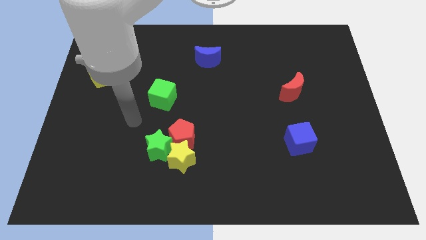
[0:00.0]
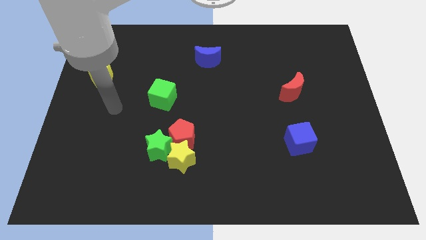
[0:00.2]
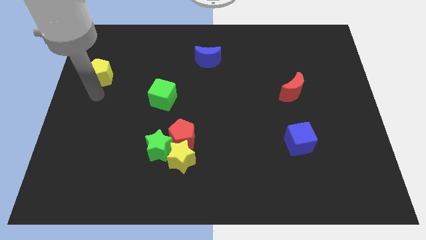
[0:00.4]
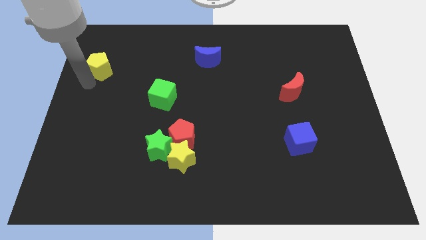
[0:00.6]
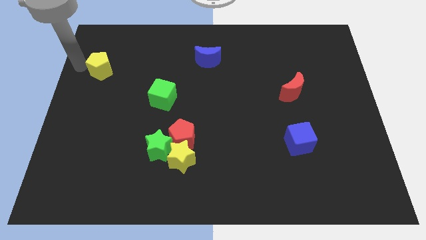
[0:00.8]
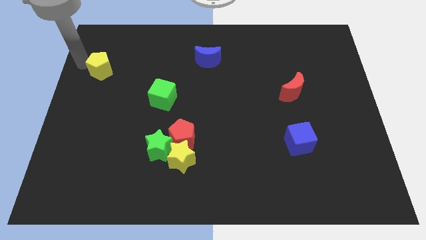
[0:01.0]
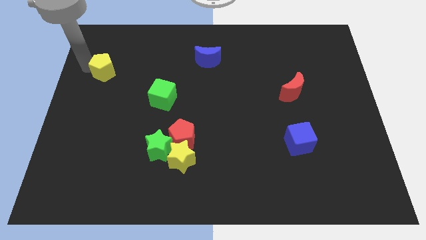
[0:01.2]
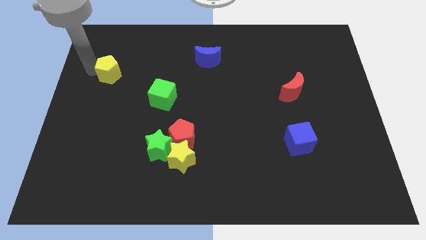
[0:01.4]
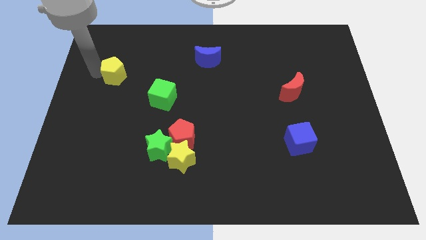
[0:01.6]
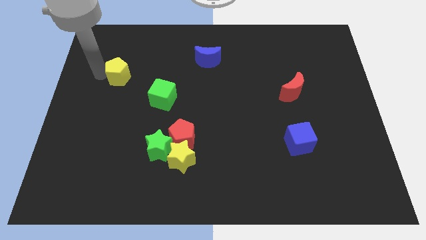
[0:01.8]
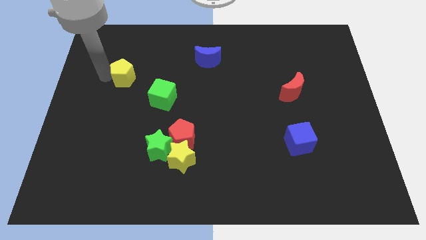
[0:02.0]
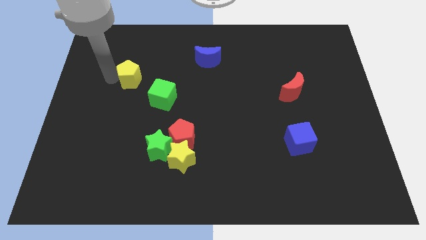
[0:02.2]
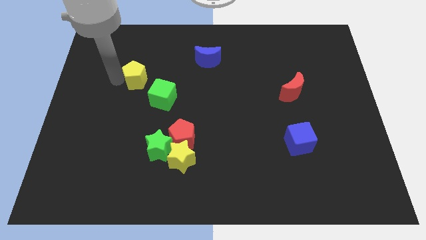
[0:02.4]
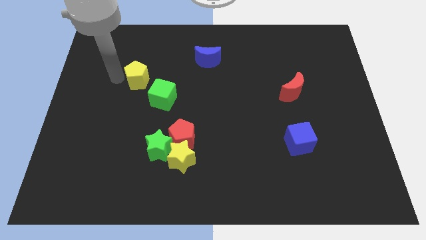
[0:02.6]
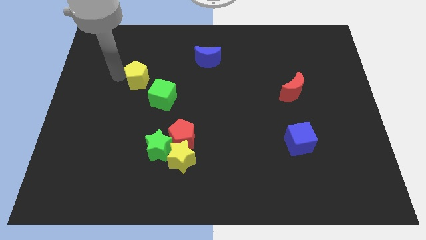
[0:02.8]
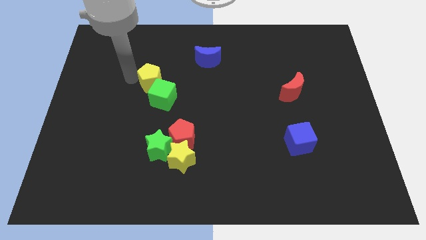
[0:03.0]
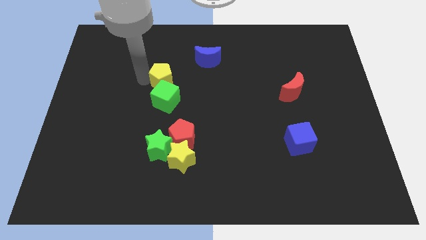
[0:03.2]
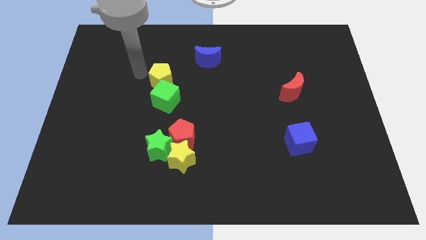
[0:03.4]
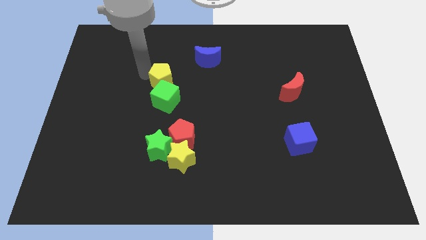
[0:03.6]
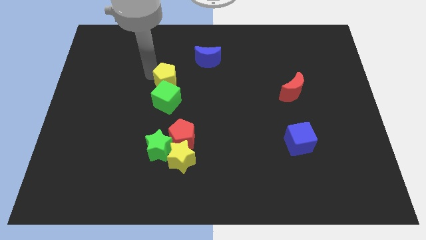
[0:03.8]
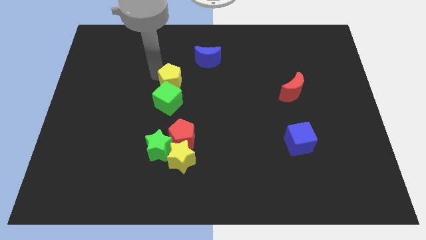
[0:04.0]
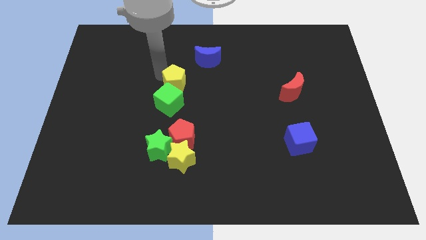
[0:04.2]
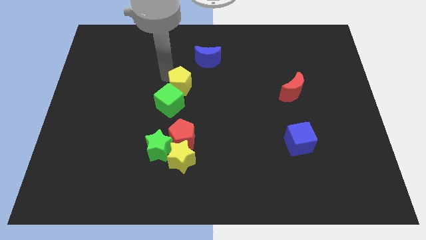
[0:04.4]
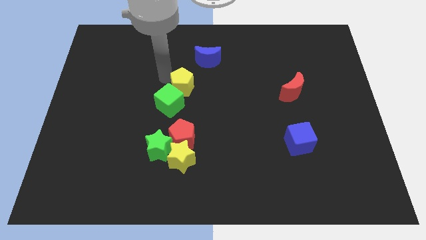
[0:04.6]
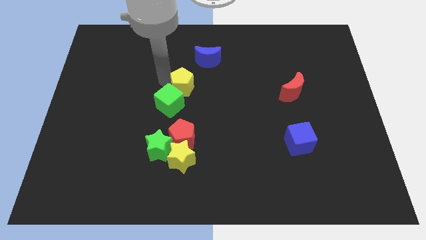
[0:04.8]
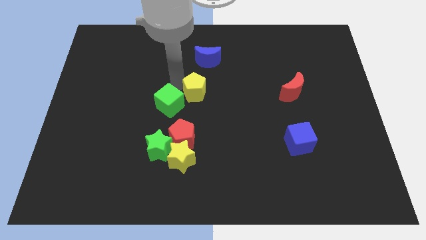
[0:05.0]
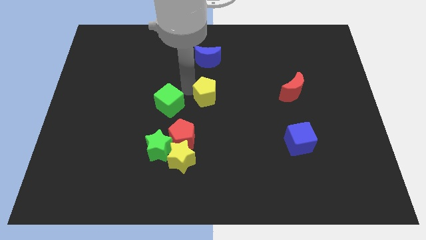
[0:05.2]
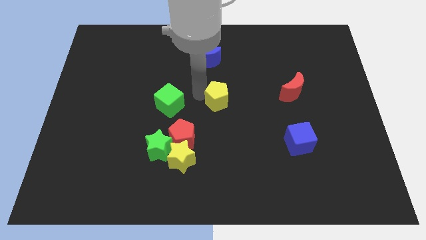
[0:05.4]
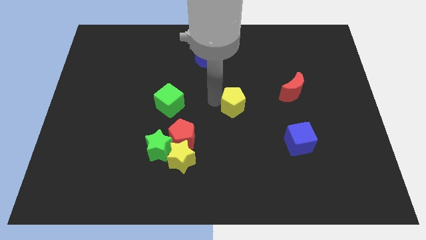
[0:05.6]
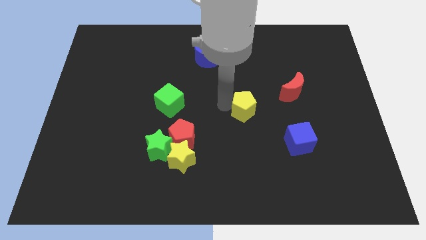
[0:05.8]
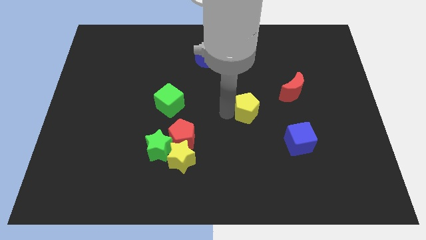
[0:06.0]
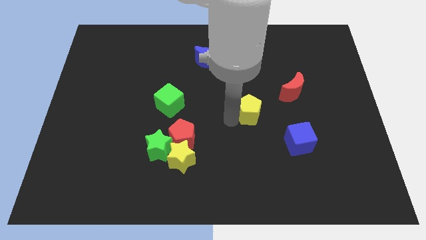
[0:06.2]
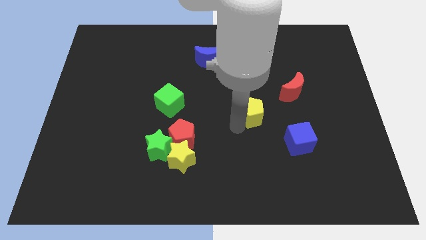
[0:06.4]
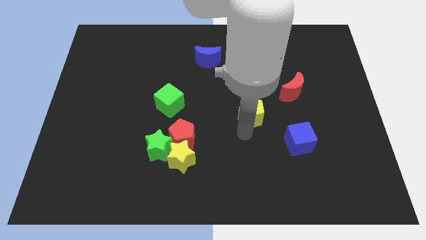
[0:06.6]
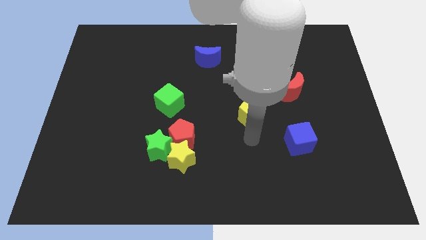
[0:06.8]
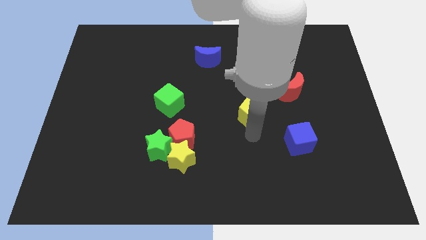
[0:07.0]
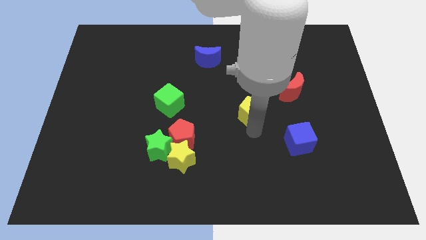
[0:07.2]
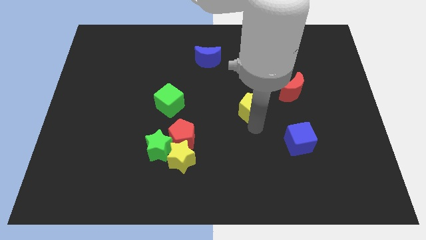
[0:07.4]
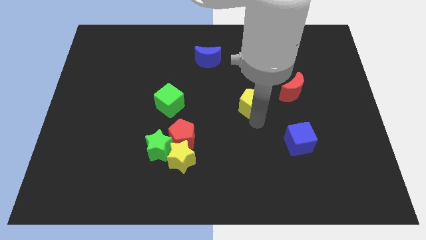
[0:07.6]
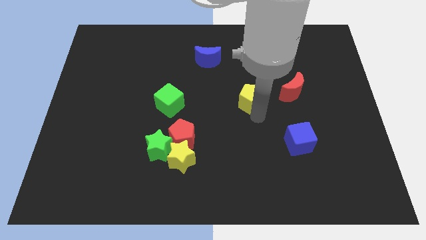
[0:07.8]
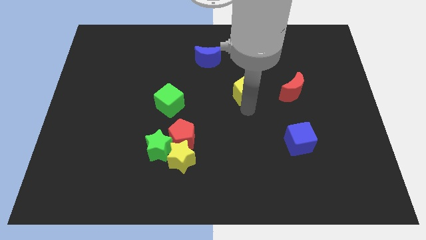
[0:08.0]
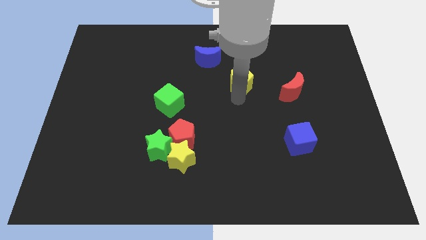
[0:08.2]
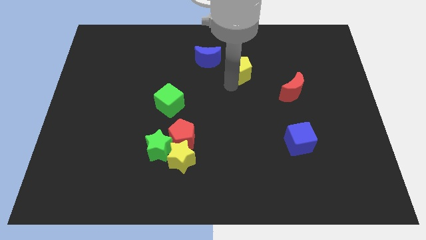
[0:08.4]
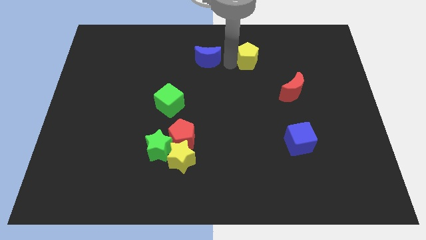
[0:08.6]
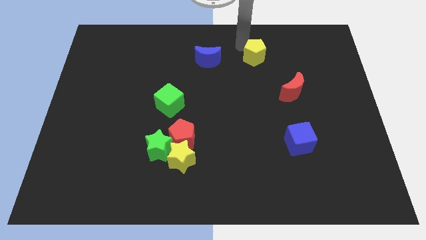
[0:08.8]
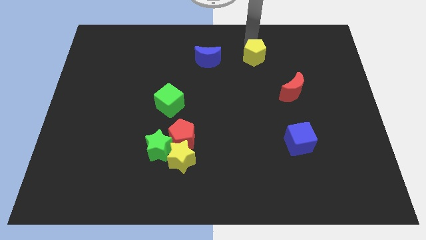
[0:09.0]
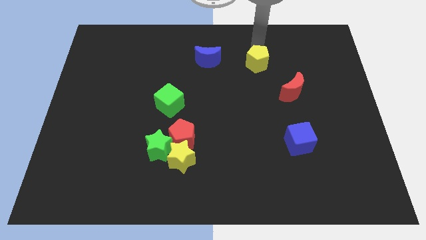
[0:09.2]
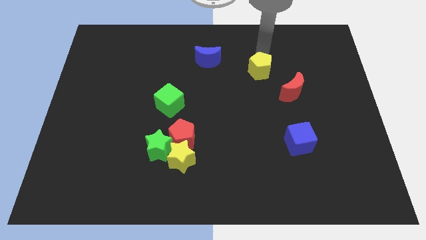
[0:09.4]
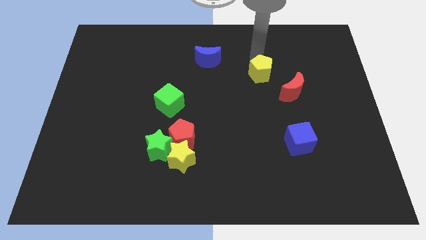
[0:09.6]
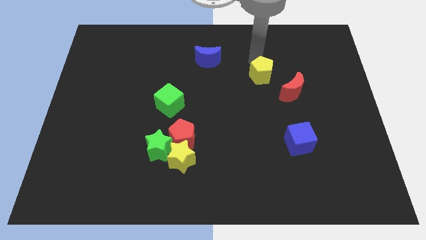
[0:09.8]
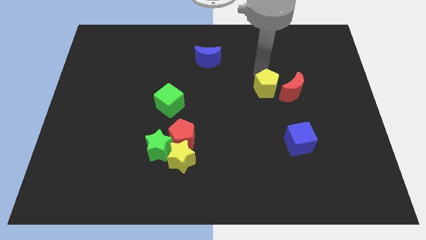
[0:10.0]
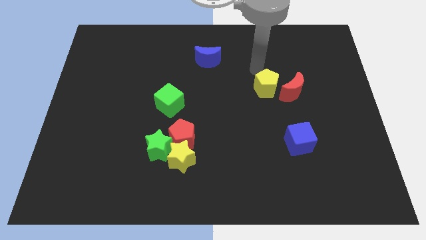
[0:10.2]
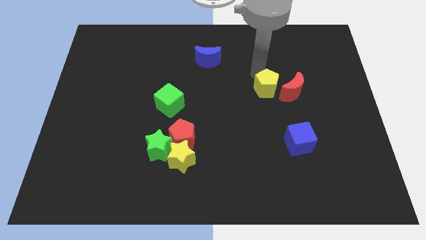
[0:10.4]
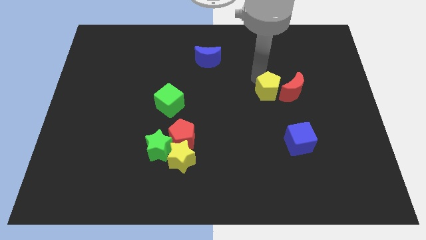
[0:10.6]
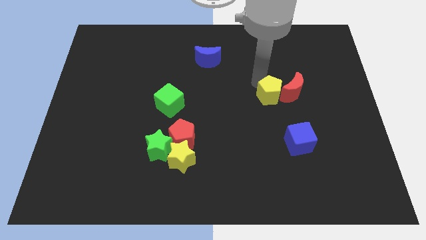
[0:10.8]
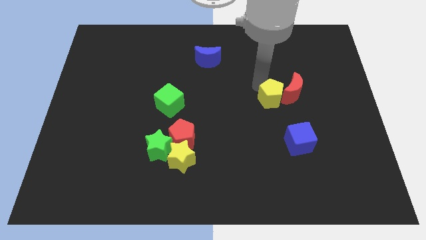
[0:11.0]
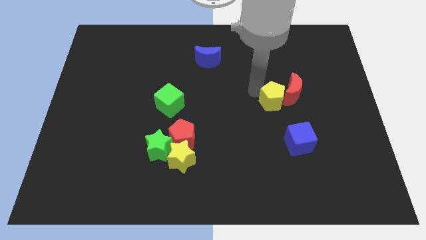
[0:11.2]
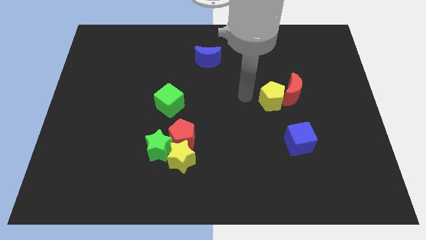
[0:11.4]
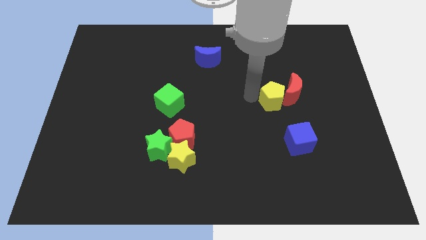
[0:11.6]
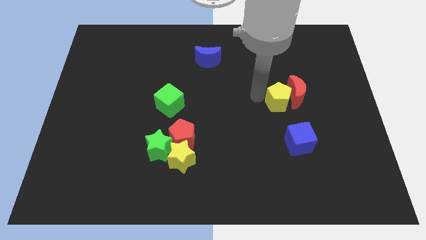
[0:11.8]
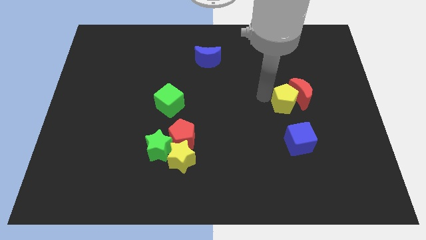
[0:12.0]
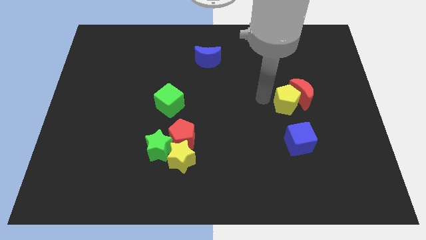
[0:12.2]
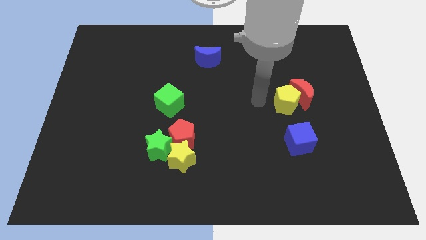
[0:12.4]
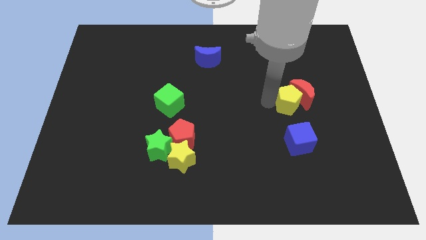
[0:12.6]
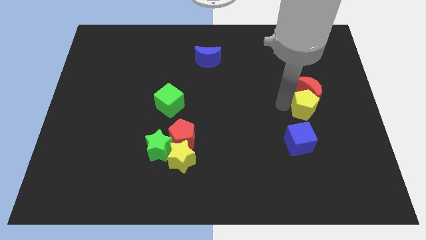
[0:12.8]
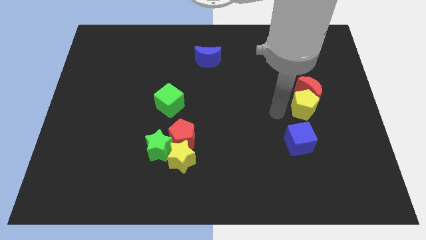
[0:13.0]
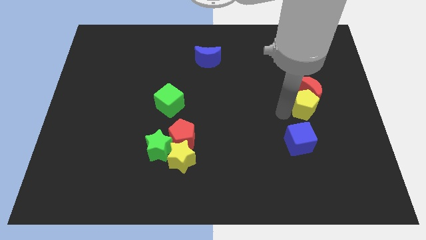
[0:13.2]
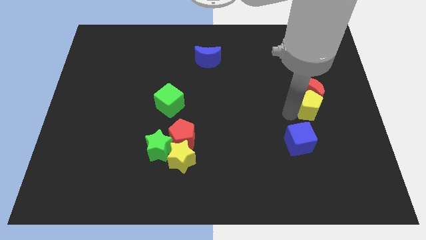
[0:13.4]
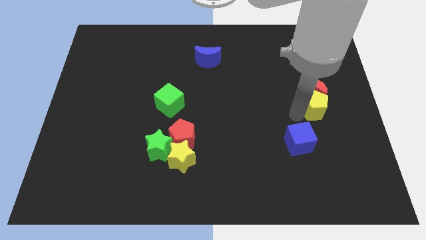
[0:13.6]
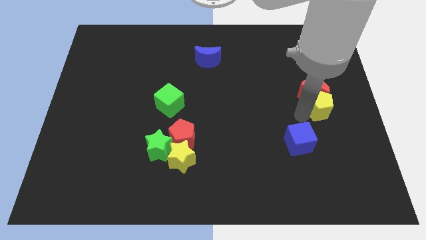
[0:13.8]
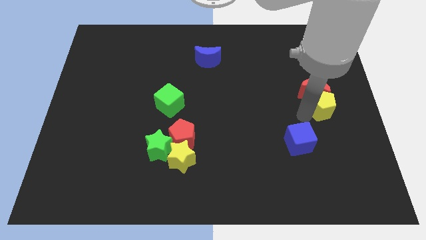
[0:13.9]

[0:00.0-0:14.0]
slide the yellow pentagon to the center right

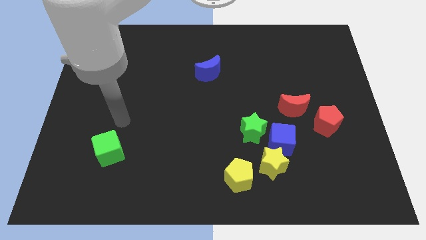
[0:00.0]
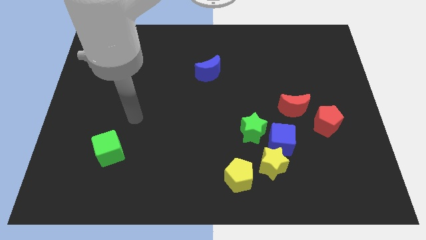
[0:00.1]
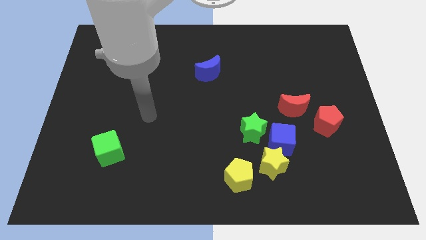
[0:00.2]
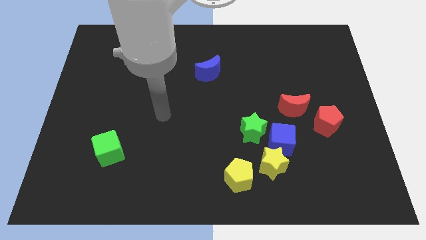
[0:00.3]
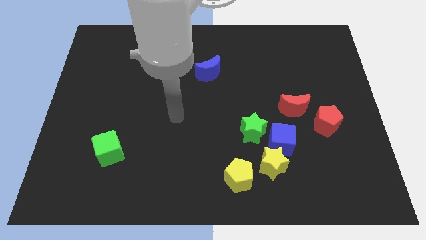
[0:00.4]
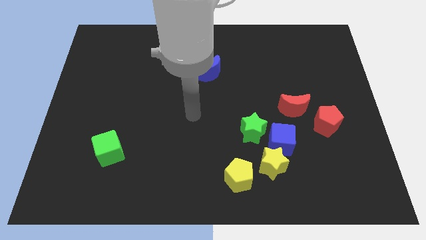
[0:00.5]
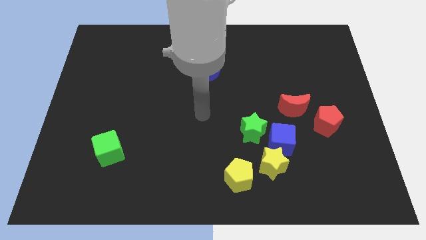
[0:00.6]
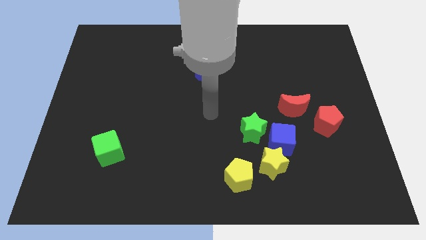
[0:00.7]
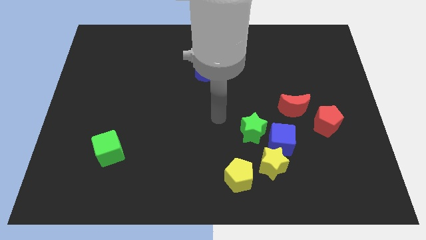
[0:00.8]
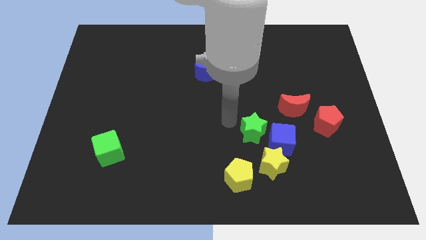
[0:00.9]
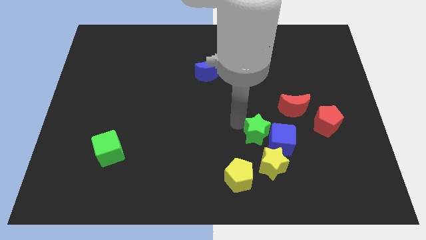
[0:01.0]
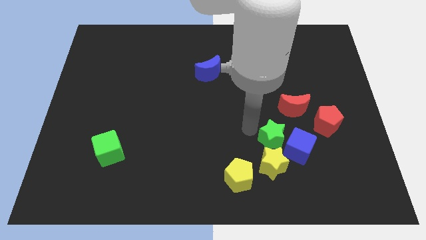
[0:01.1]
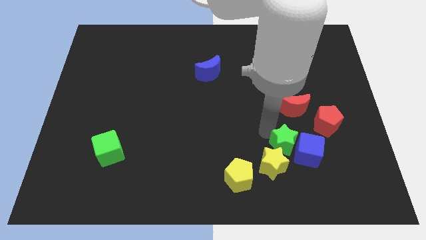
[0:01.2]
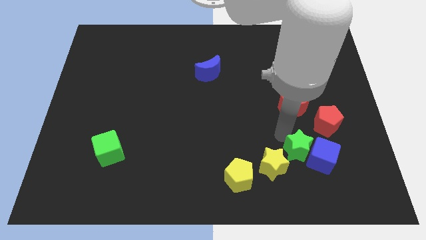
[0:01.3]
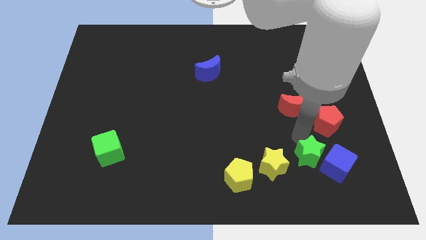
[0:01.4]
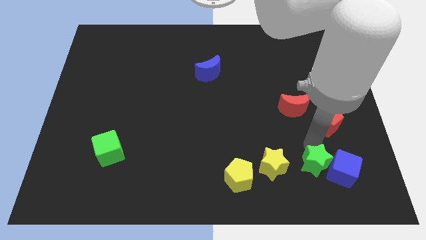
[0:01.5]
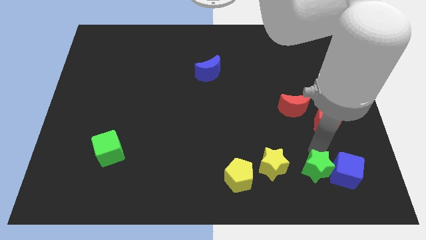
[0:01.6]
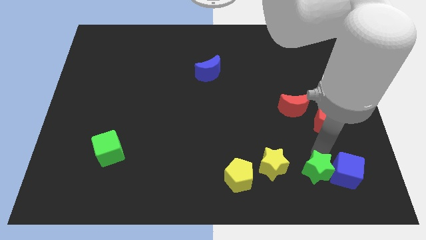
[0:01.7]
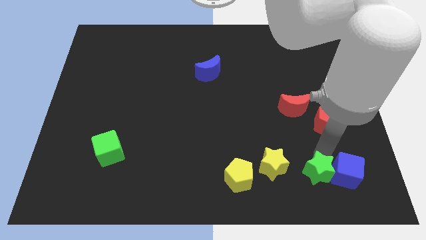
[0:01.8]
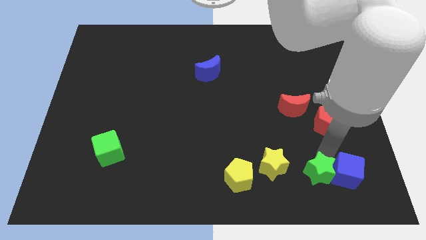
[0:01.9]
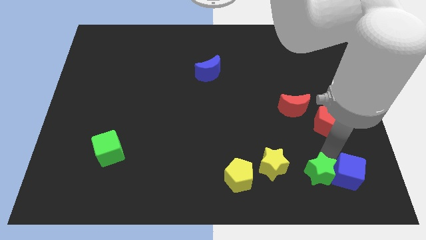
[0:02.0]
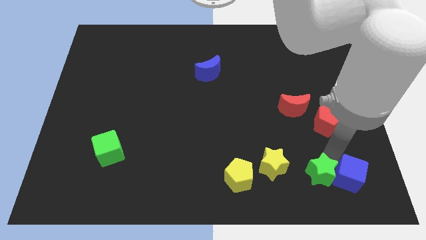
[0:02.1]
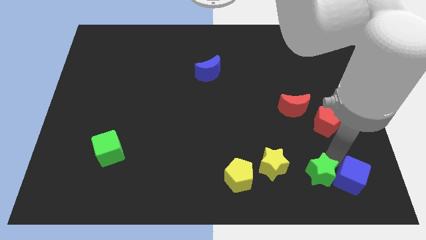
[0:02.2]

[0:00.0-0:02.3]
slide the blue cube to the bottom right
